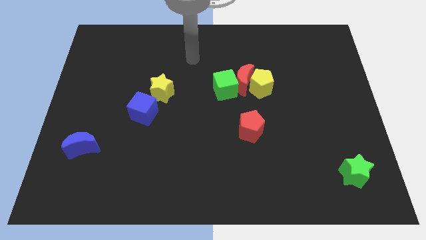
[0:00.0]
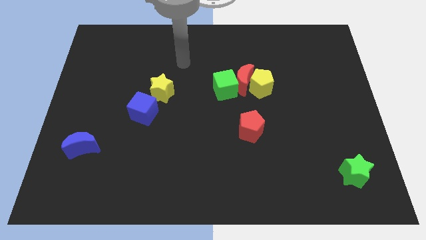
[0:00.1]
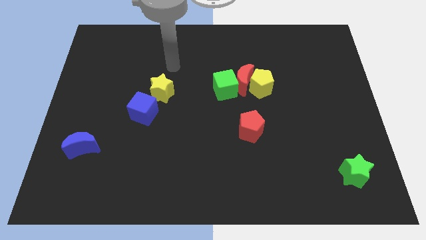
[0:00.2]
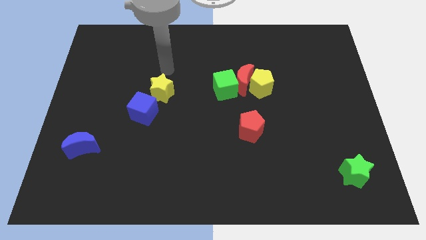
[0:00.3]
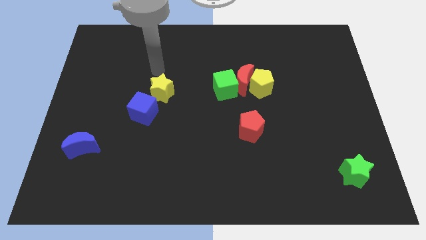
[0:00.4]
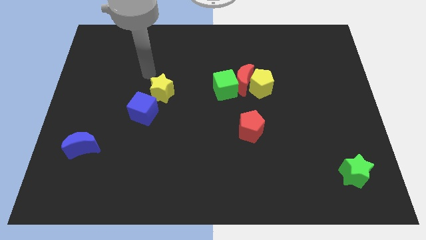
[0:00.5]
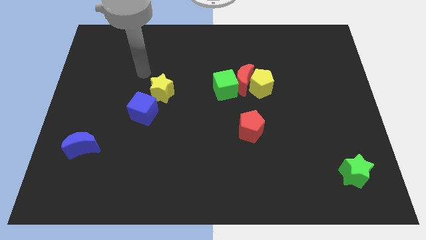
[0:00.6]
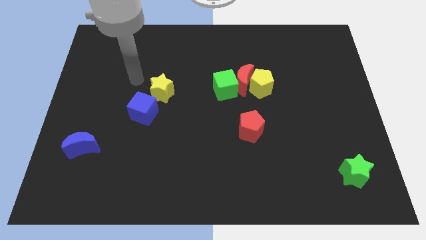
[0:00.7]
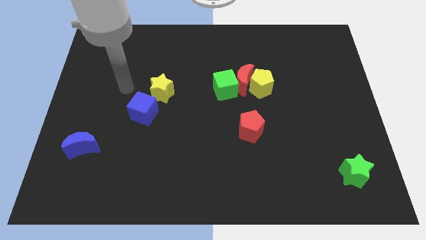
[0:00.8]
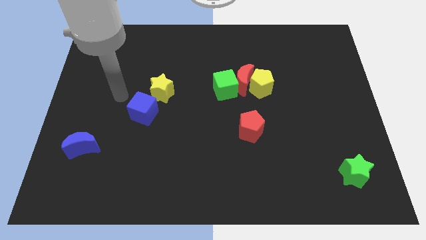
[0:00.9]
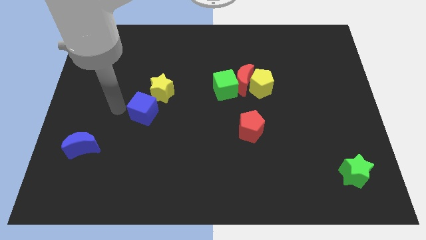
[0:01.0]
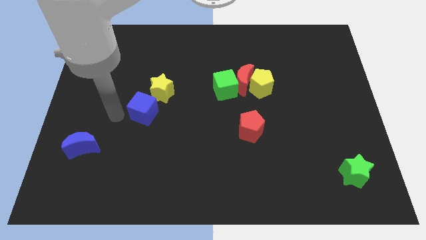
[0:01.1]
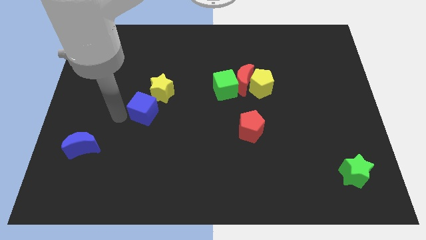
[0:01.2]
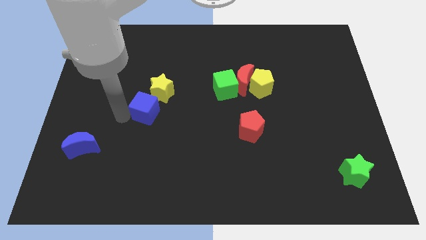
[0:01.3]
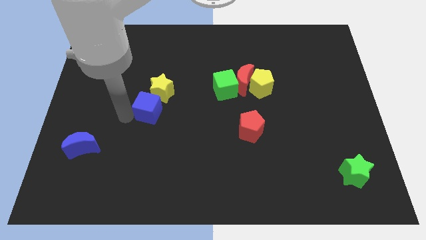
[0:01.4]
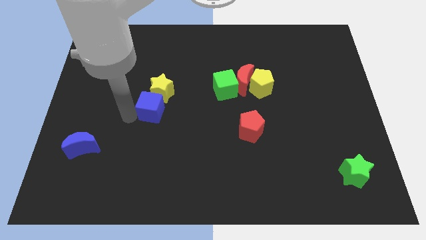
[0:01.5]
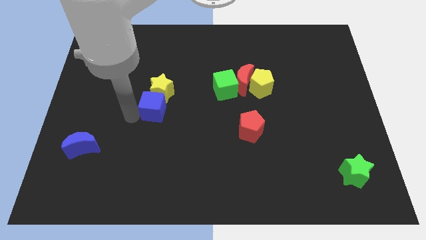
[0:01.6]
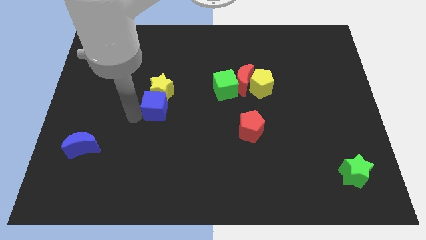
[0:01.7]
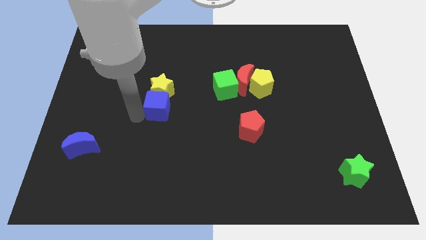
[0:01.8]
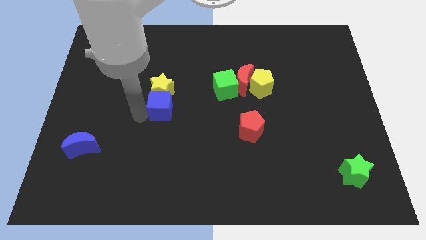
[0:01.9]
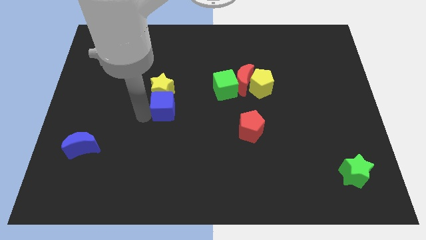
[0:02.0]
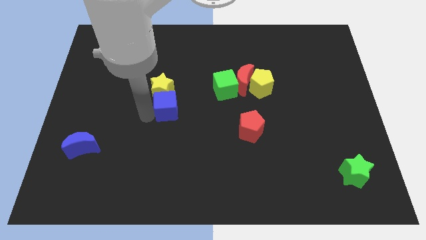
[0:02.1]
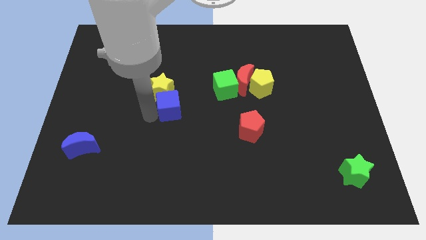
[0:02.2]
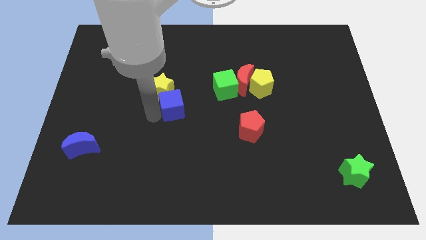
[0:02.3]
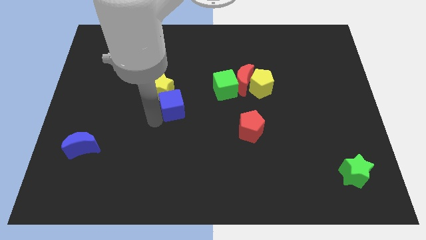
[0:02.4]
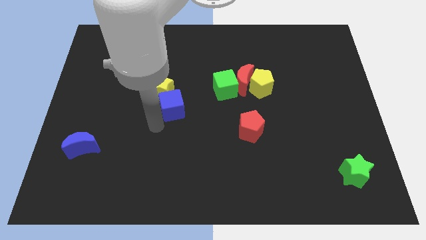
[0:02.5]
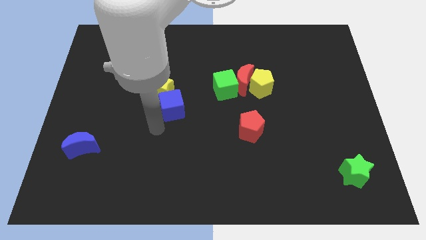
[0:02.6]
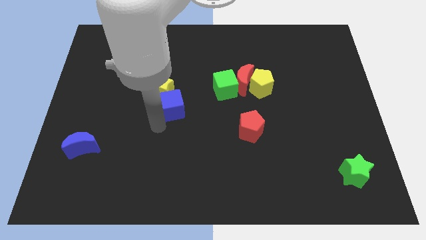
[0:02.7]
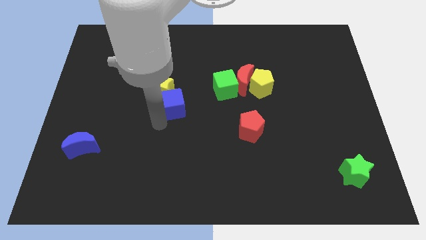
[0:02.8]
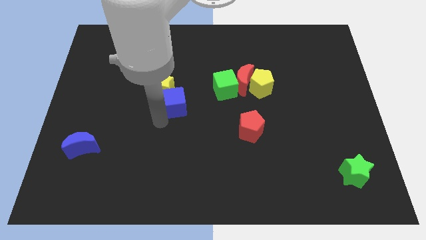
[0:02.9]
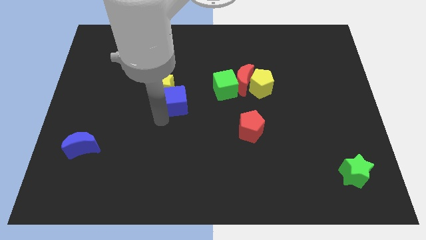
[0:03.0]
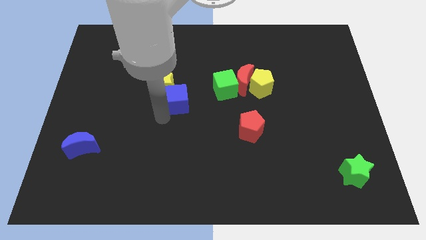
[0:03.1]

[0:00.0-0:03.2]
move the blue cube up and then right a little bit

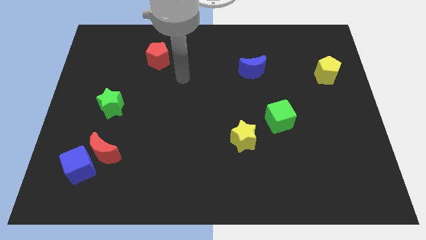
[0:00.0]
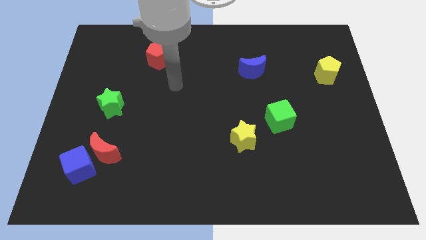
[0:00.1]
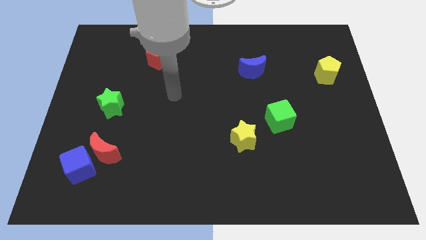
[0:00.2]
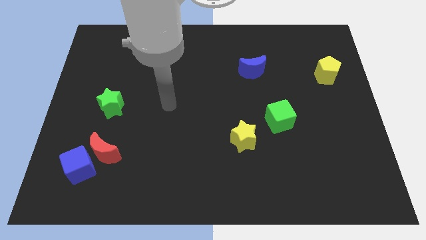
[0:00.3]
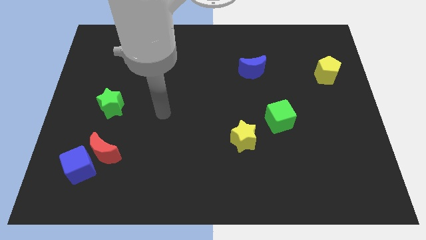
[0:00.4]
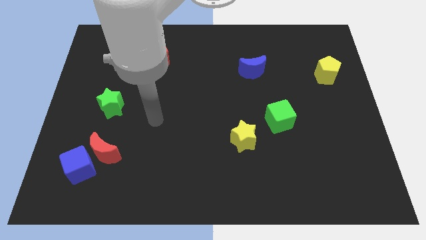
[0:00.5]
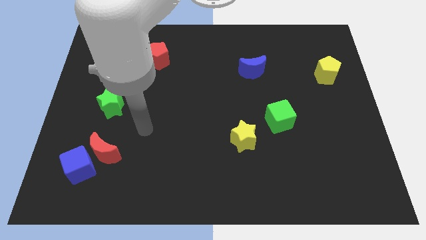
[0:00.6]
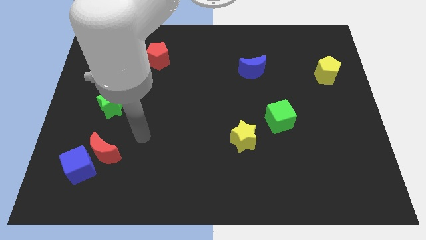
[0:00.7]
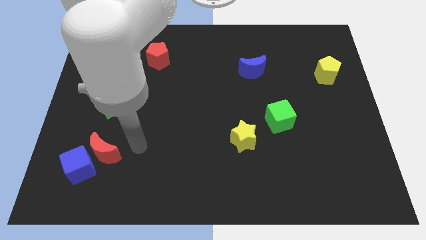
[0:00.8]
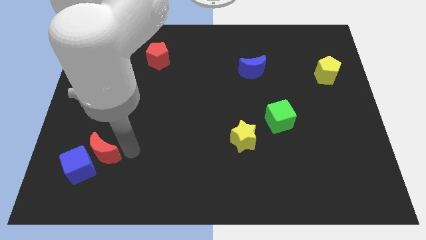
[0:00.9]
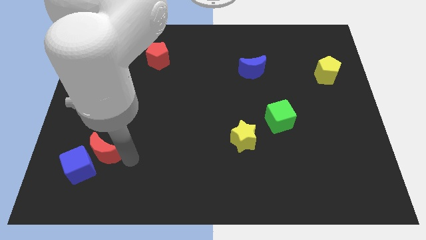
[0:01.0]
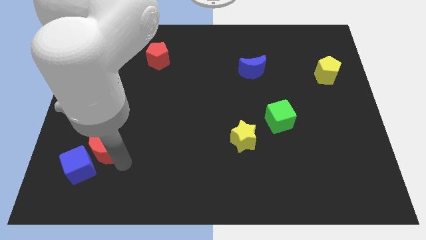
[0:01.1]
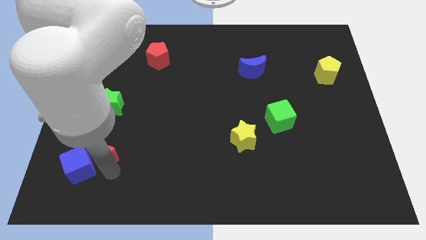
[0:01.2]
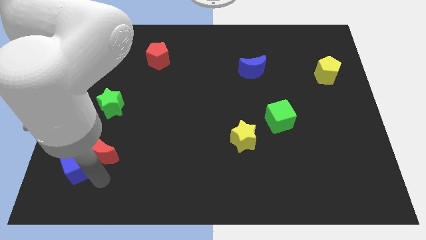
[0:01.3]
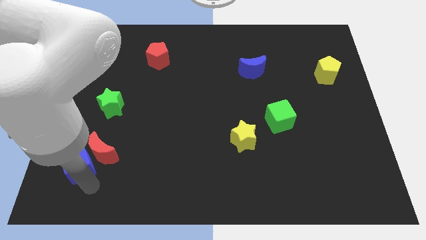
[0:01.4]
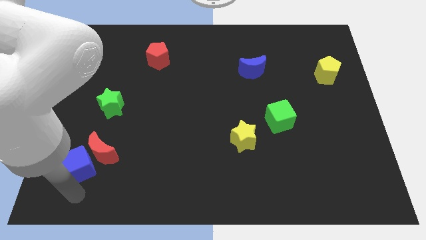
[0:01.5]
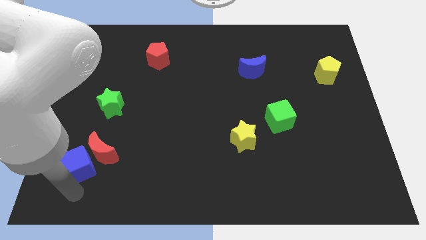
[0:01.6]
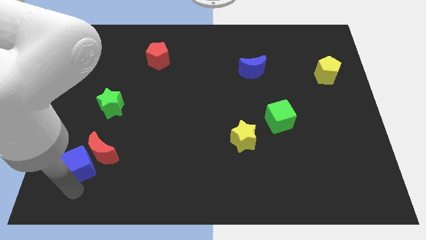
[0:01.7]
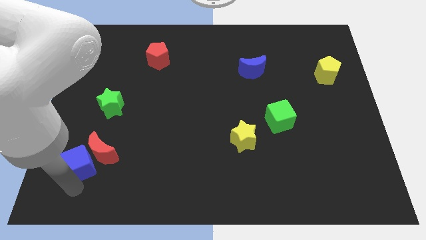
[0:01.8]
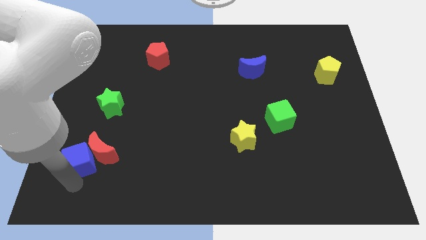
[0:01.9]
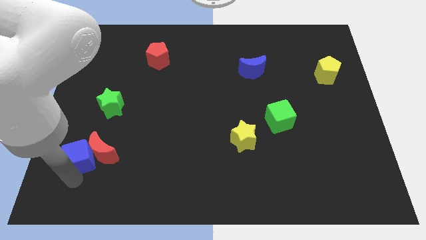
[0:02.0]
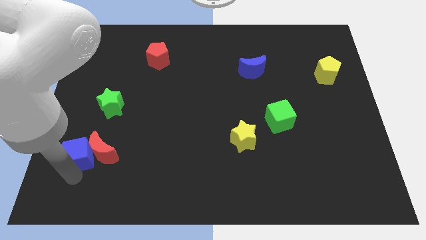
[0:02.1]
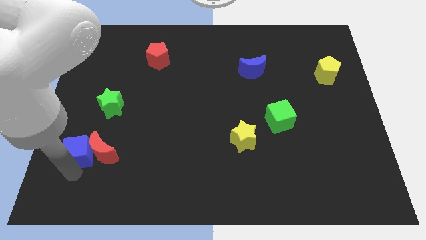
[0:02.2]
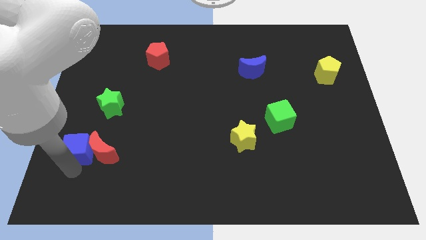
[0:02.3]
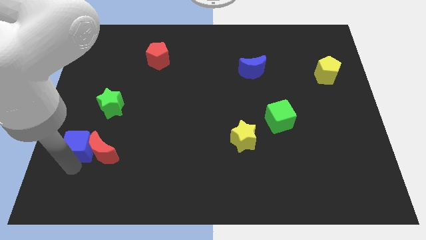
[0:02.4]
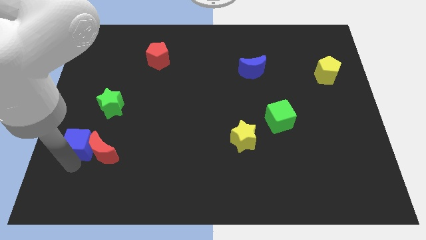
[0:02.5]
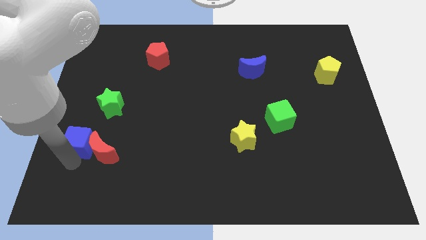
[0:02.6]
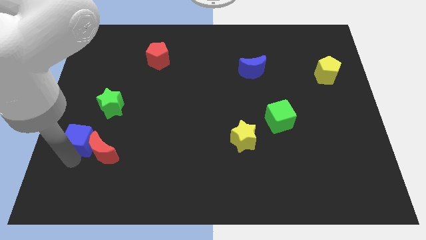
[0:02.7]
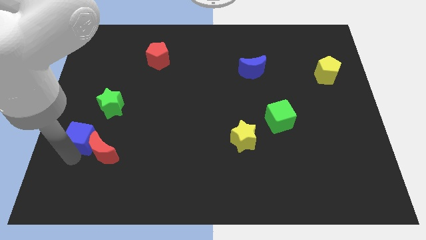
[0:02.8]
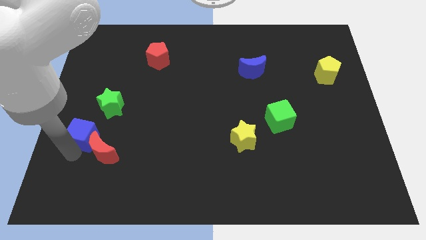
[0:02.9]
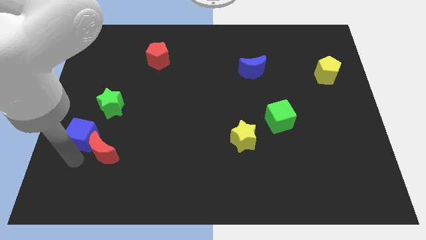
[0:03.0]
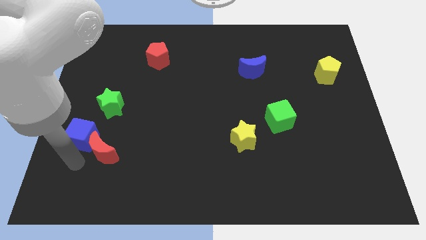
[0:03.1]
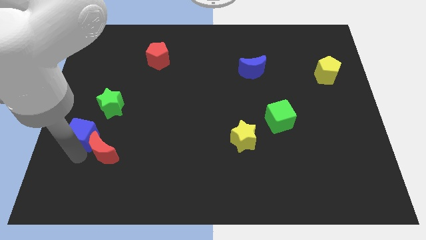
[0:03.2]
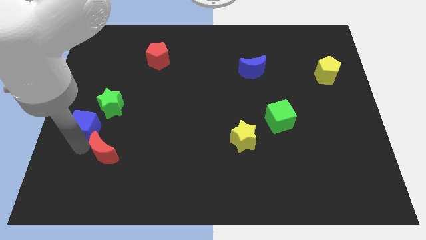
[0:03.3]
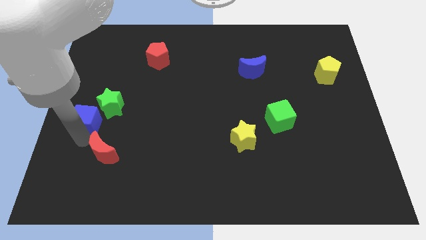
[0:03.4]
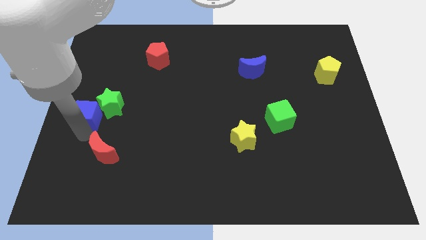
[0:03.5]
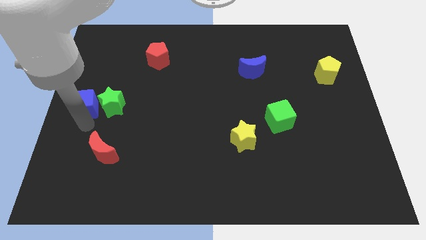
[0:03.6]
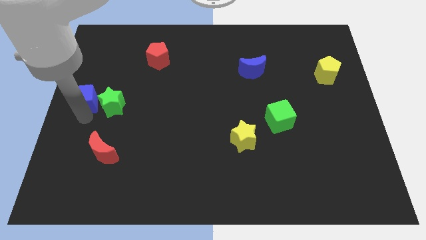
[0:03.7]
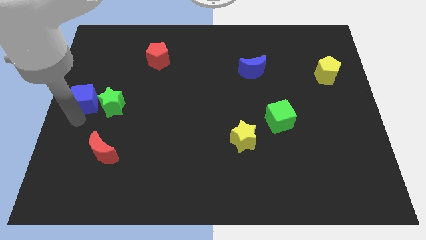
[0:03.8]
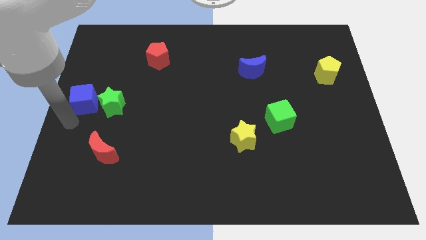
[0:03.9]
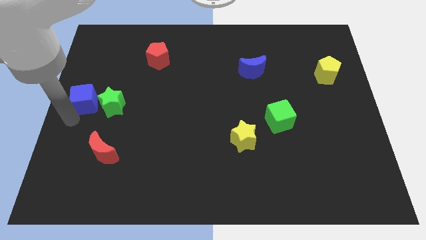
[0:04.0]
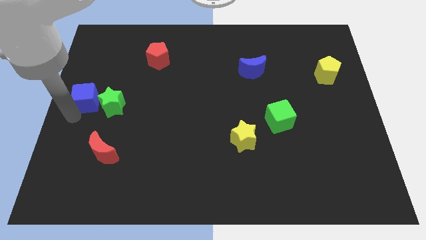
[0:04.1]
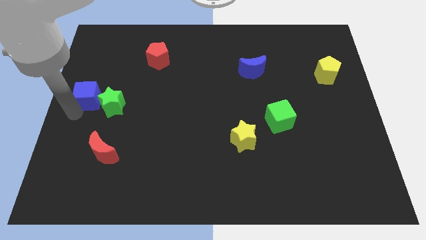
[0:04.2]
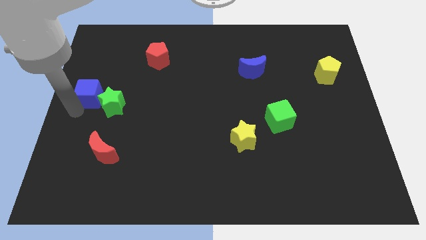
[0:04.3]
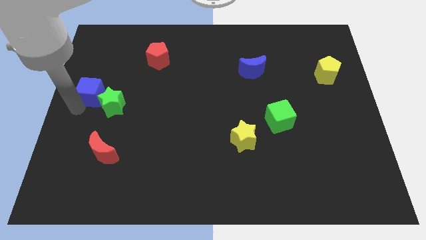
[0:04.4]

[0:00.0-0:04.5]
push the blue cube upwards

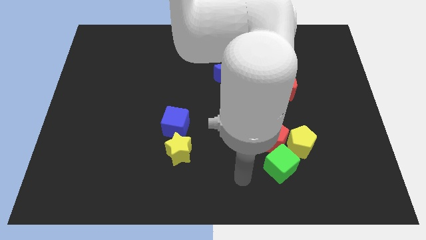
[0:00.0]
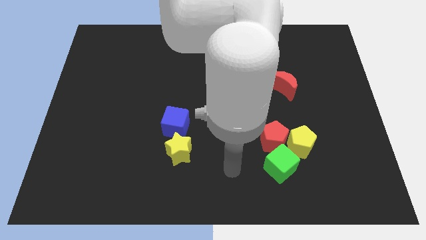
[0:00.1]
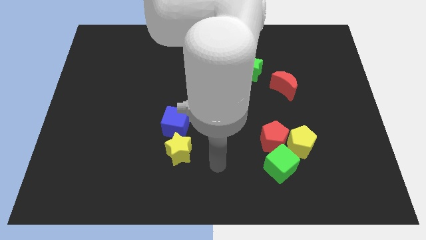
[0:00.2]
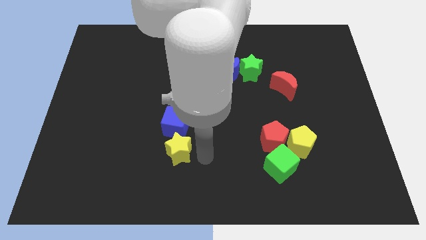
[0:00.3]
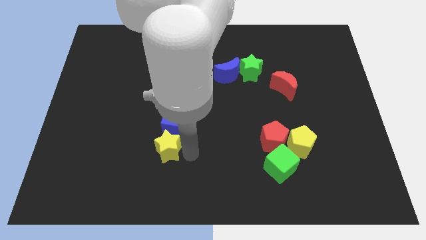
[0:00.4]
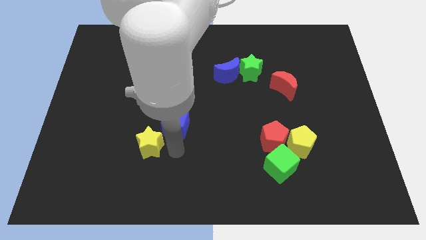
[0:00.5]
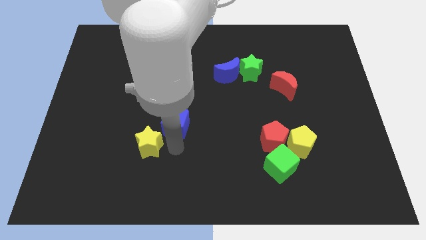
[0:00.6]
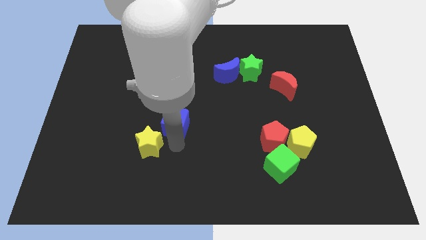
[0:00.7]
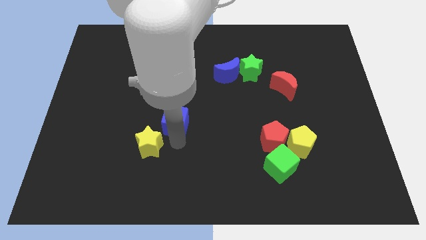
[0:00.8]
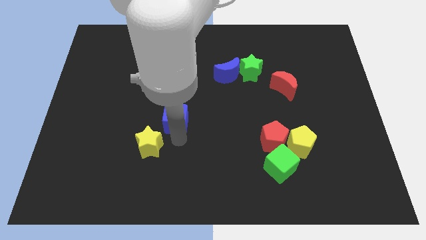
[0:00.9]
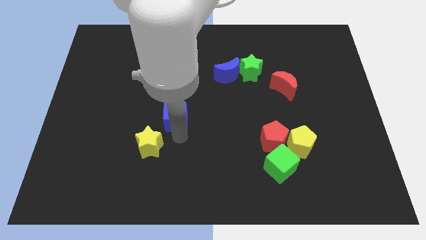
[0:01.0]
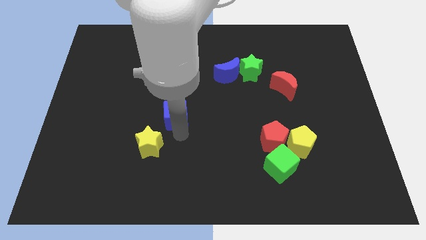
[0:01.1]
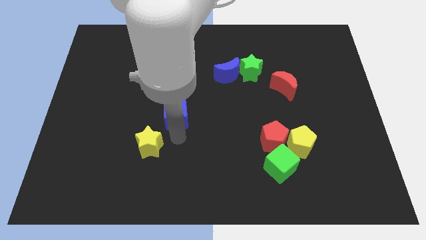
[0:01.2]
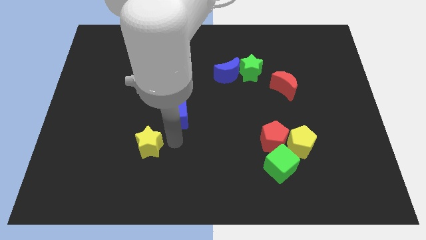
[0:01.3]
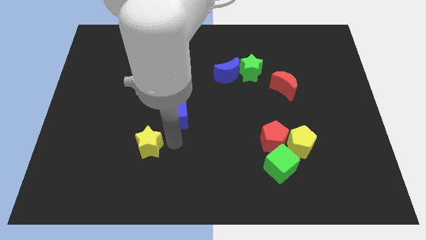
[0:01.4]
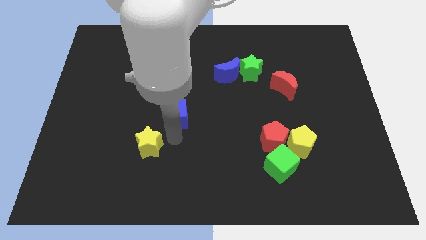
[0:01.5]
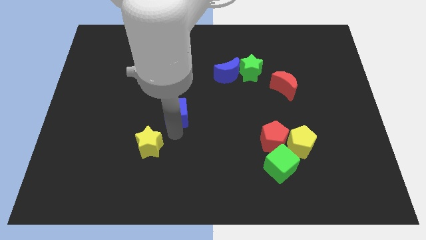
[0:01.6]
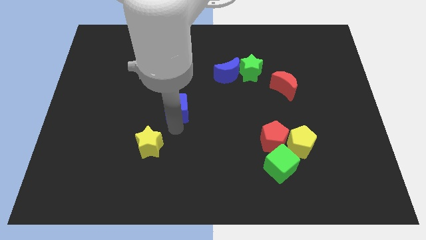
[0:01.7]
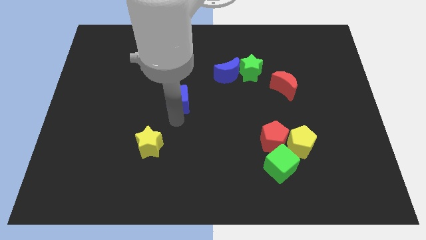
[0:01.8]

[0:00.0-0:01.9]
slightly move the blue cube up
